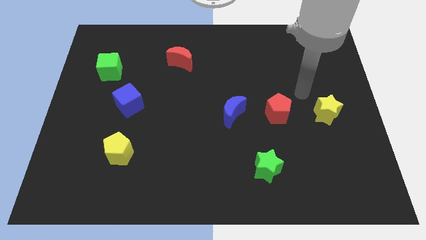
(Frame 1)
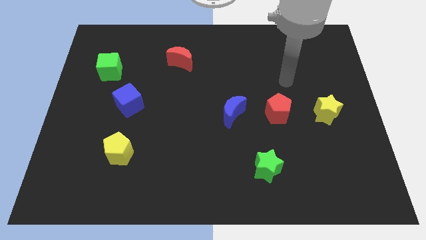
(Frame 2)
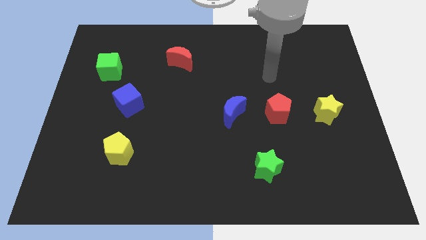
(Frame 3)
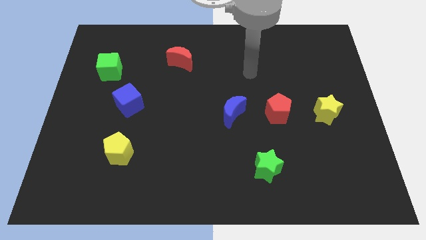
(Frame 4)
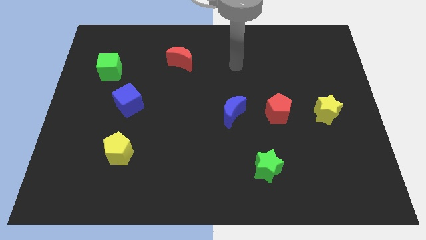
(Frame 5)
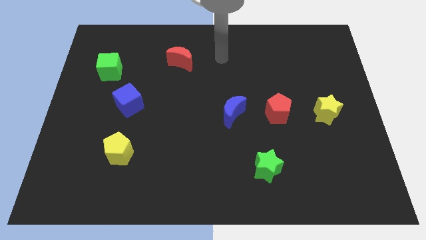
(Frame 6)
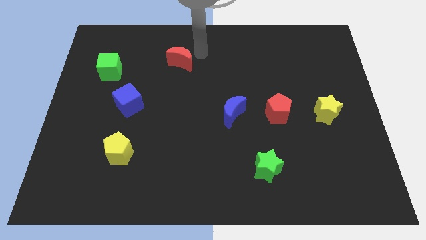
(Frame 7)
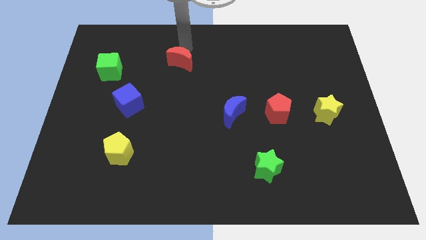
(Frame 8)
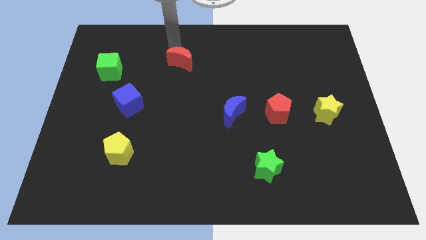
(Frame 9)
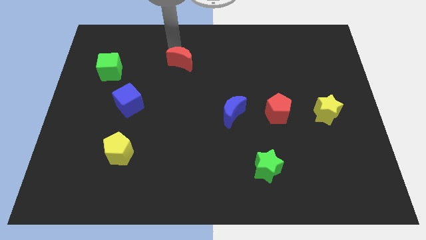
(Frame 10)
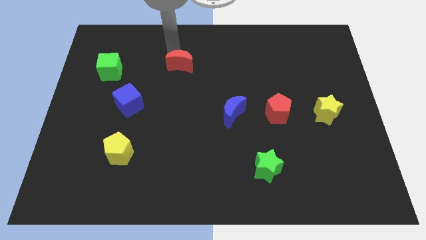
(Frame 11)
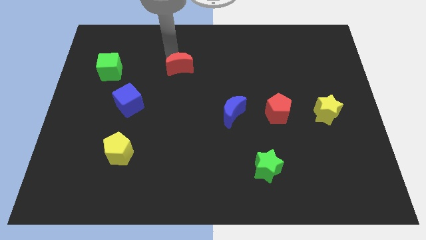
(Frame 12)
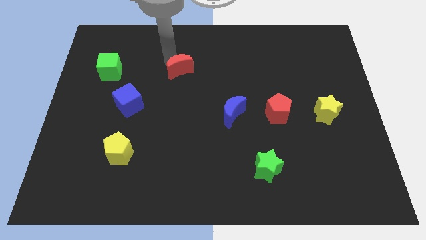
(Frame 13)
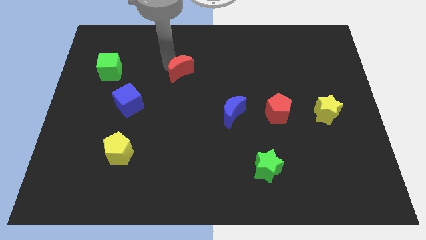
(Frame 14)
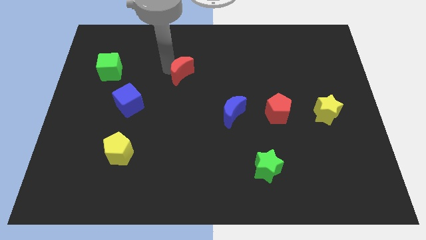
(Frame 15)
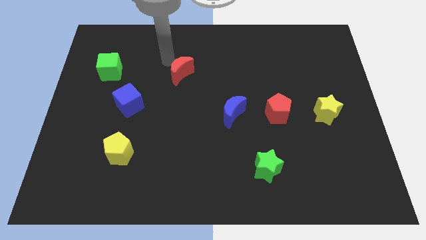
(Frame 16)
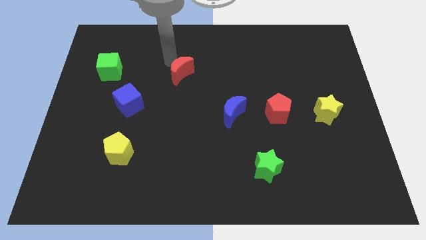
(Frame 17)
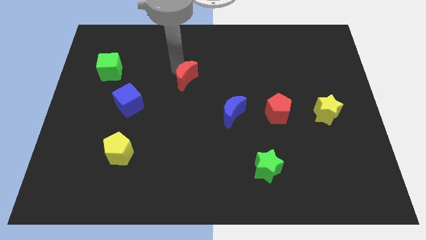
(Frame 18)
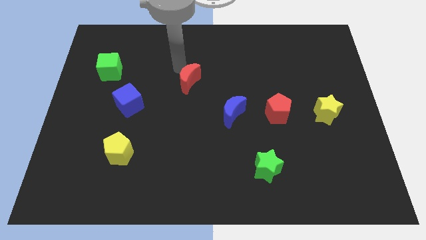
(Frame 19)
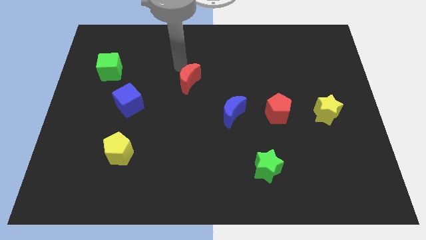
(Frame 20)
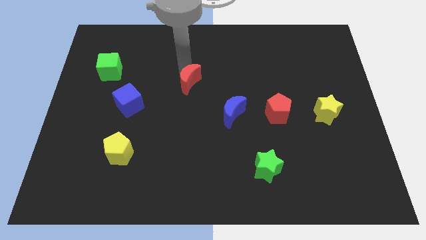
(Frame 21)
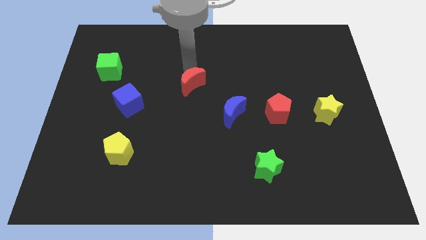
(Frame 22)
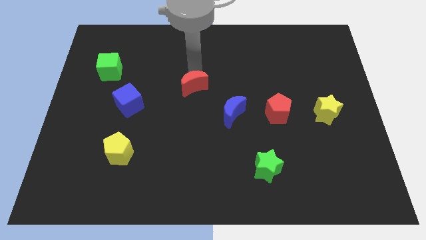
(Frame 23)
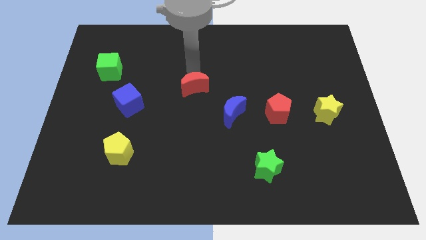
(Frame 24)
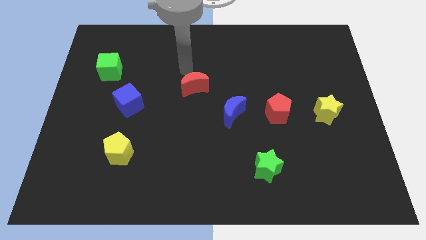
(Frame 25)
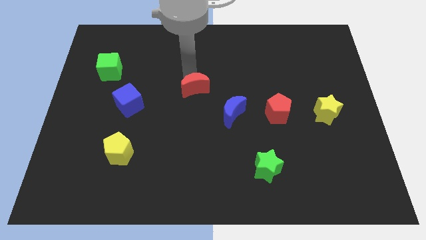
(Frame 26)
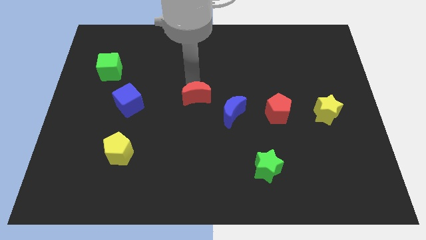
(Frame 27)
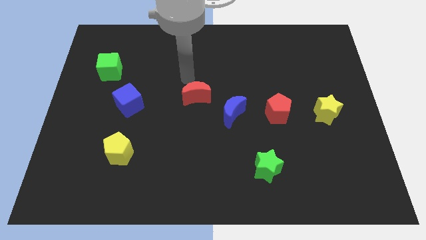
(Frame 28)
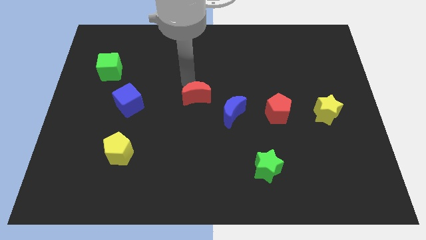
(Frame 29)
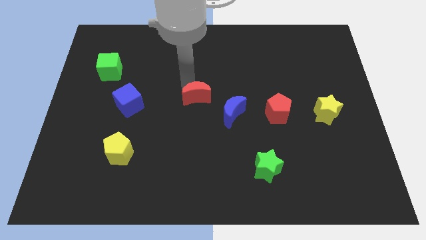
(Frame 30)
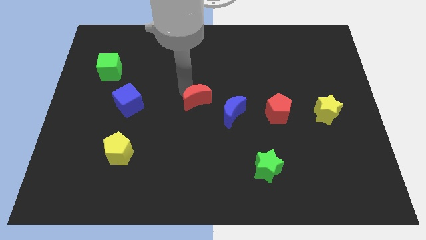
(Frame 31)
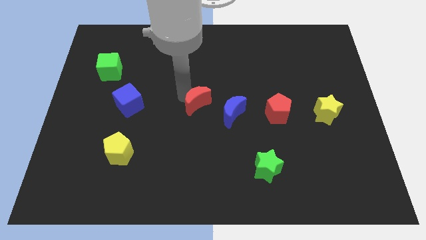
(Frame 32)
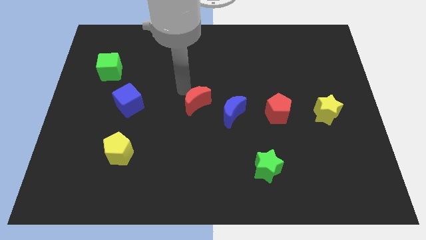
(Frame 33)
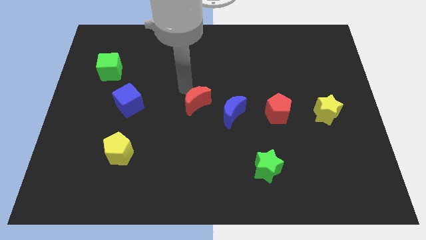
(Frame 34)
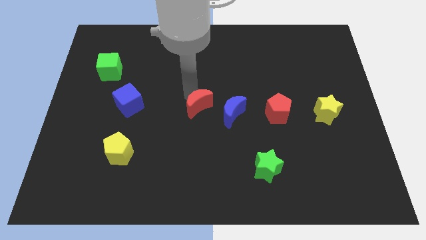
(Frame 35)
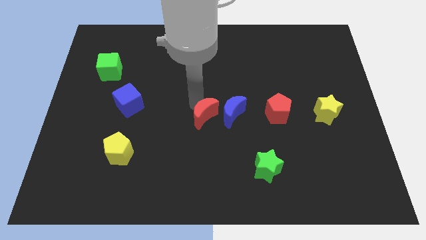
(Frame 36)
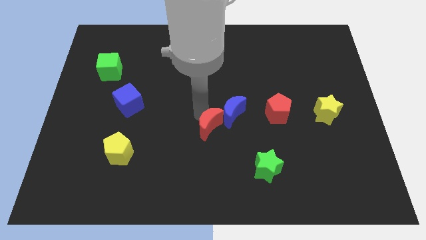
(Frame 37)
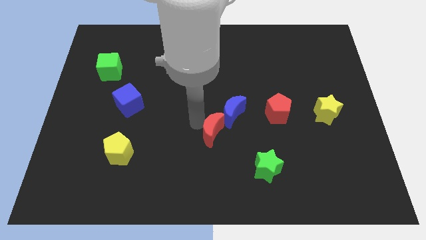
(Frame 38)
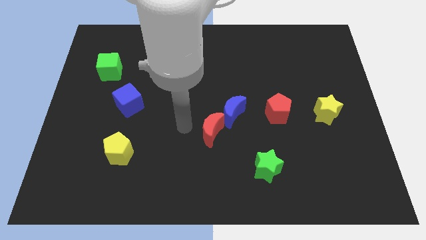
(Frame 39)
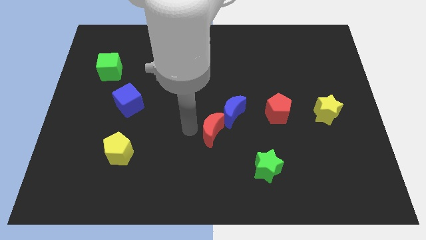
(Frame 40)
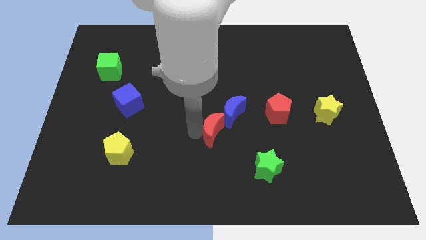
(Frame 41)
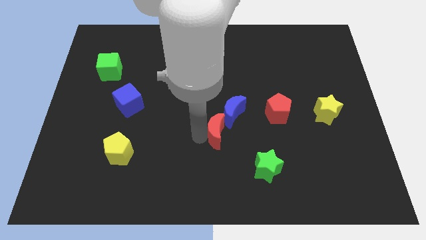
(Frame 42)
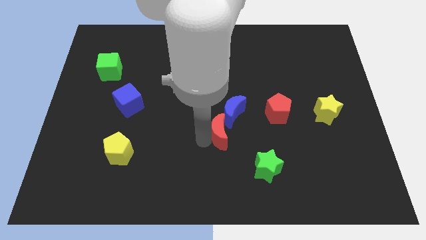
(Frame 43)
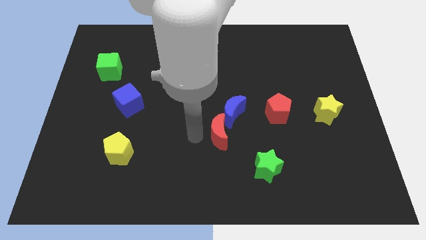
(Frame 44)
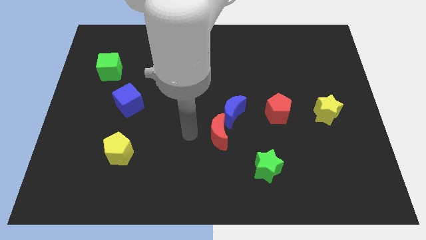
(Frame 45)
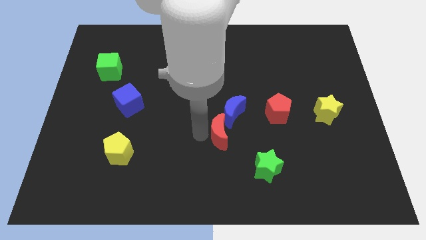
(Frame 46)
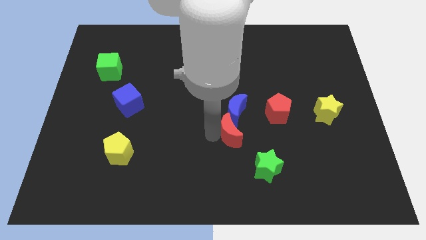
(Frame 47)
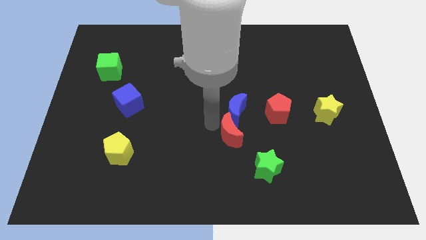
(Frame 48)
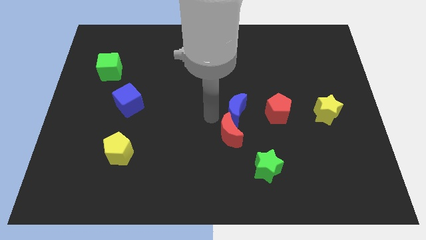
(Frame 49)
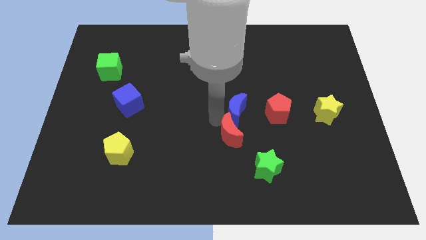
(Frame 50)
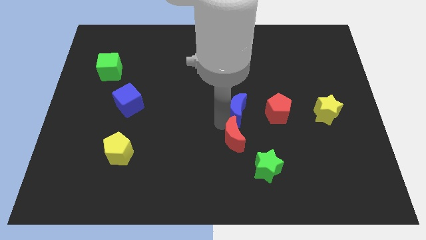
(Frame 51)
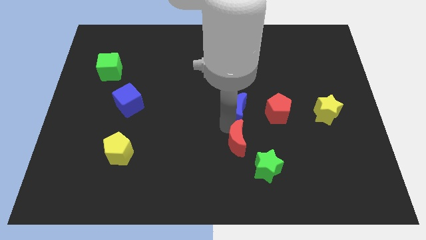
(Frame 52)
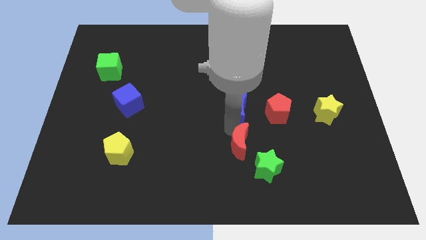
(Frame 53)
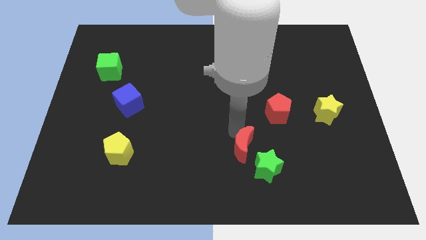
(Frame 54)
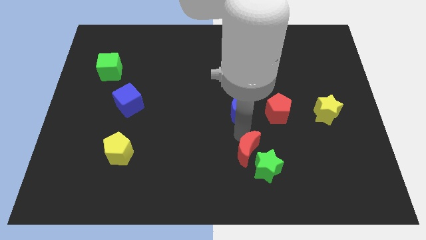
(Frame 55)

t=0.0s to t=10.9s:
slide the red moon to the green star

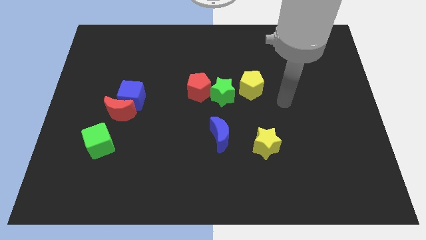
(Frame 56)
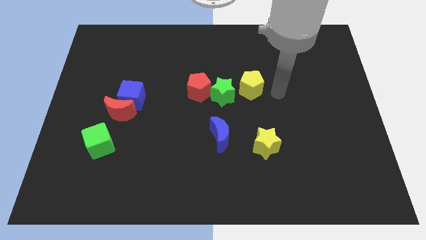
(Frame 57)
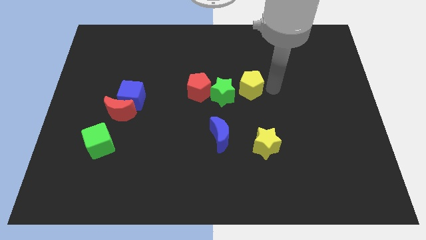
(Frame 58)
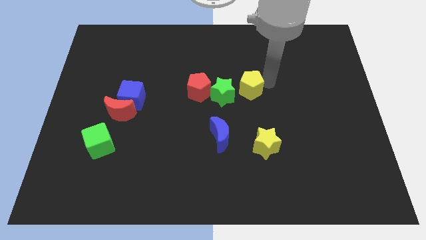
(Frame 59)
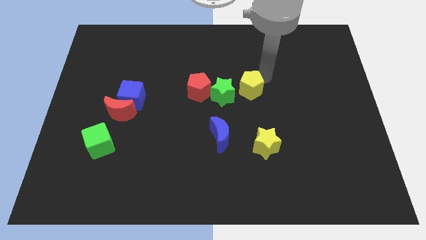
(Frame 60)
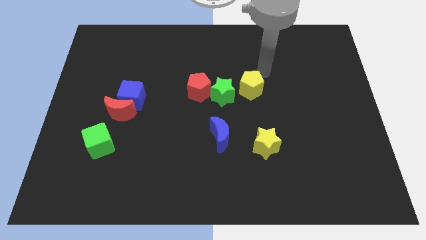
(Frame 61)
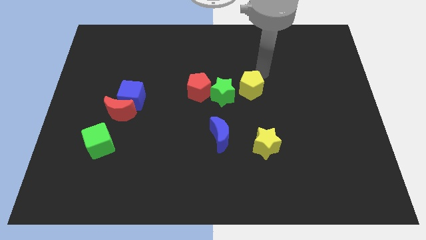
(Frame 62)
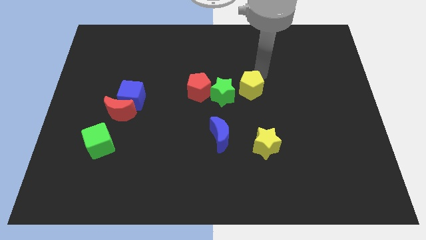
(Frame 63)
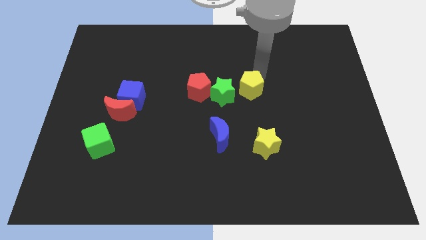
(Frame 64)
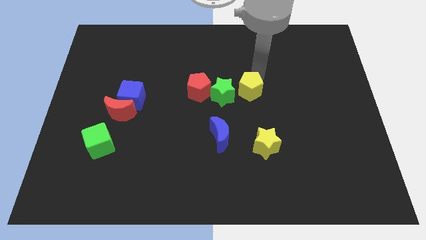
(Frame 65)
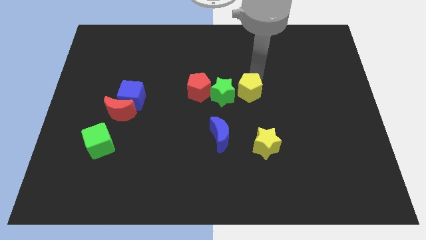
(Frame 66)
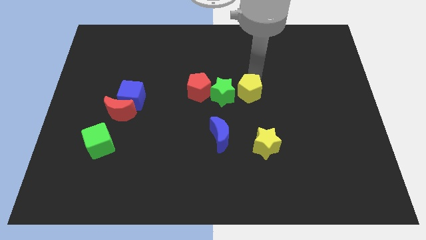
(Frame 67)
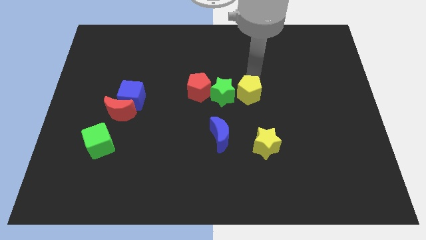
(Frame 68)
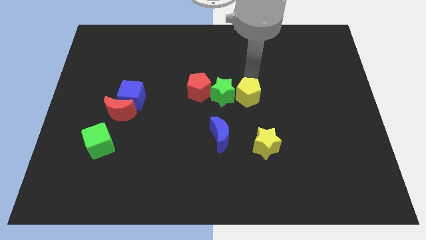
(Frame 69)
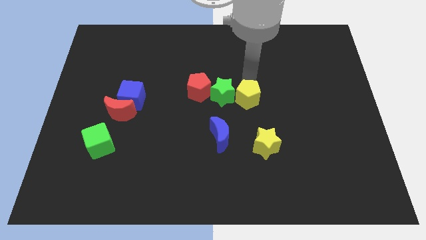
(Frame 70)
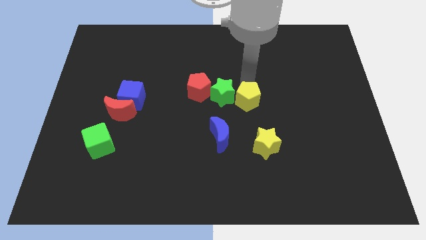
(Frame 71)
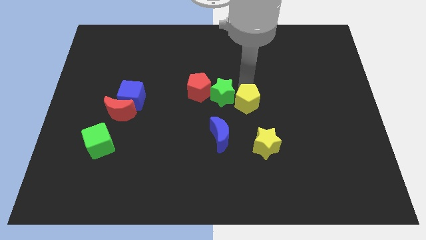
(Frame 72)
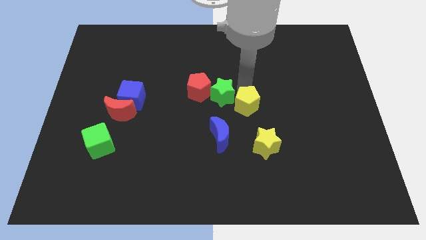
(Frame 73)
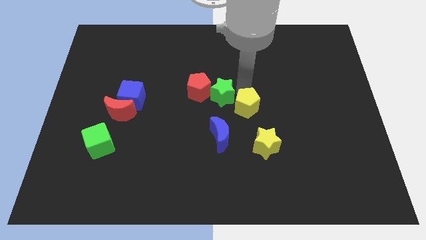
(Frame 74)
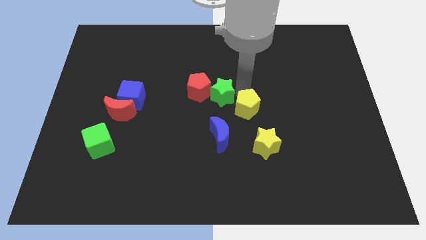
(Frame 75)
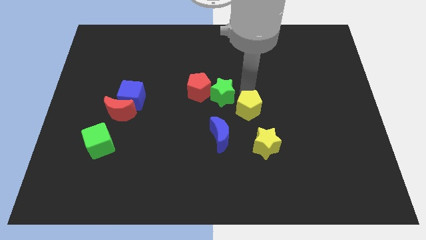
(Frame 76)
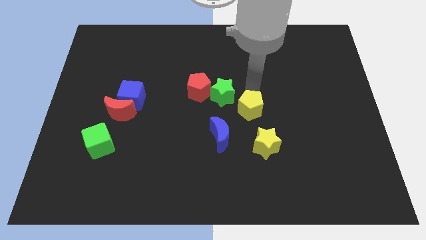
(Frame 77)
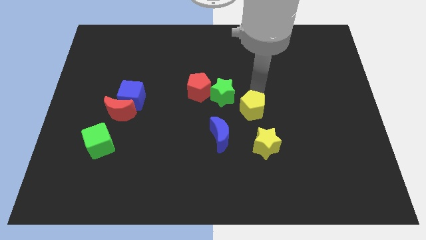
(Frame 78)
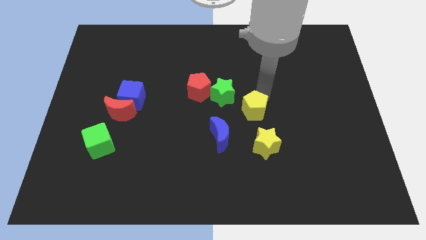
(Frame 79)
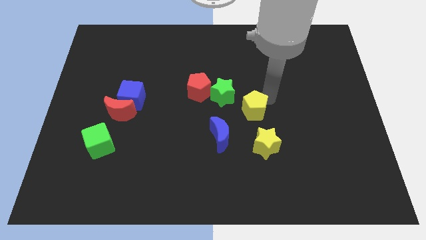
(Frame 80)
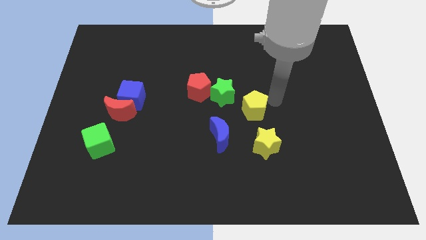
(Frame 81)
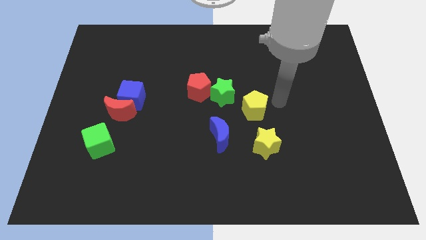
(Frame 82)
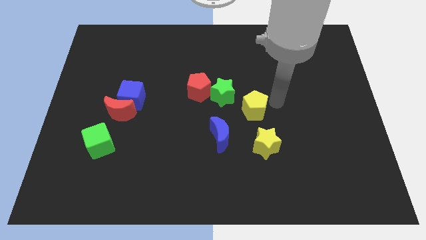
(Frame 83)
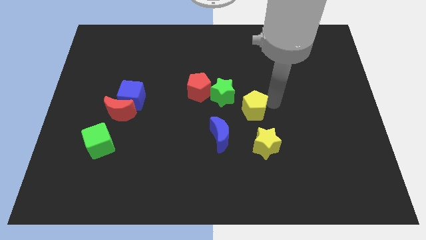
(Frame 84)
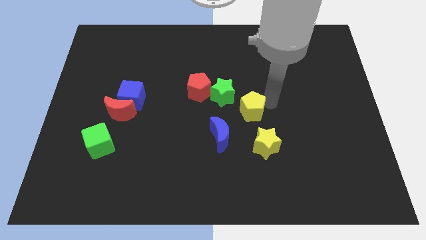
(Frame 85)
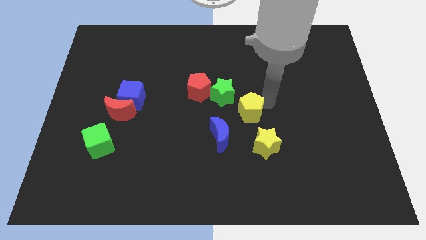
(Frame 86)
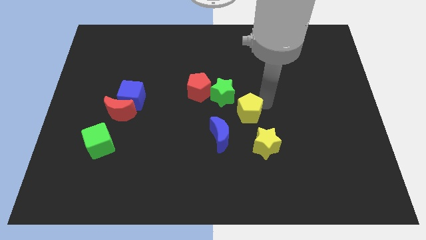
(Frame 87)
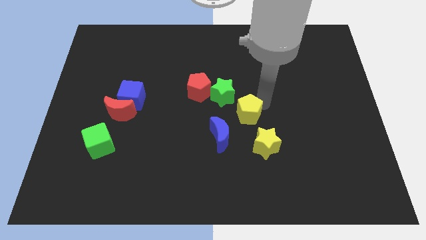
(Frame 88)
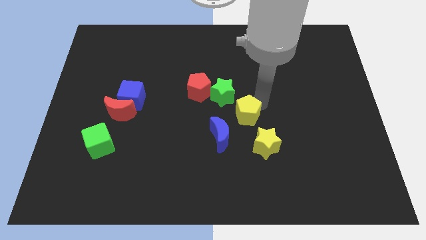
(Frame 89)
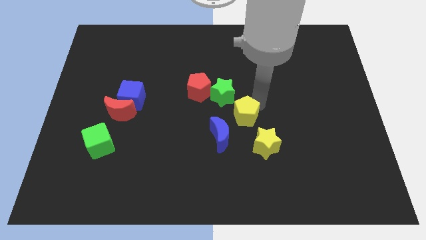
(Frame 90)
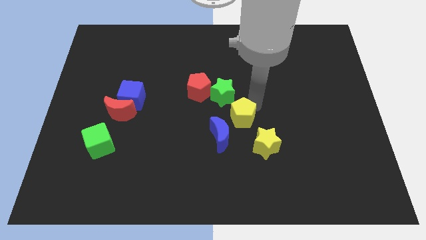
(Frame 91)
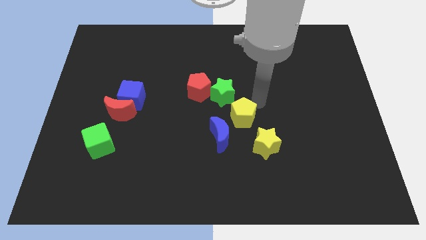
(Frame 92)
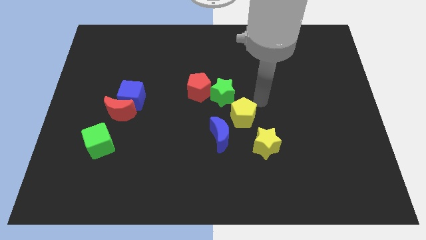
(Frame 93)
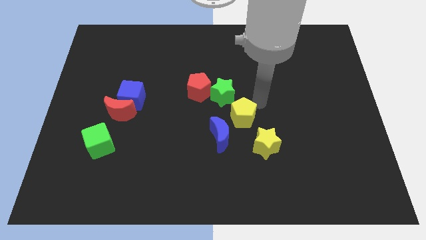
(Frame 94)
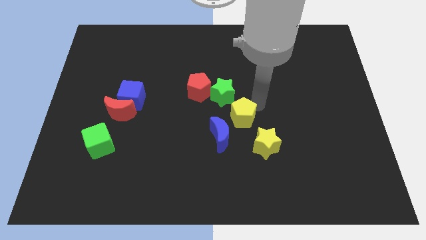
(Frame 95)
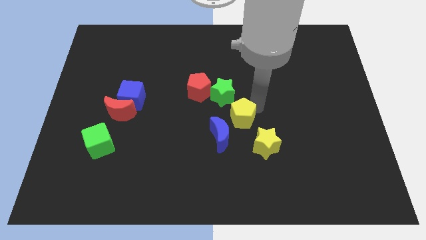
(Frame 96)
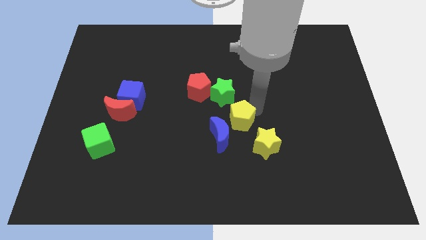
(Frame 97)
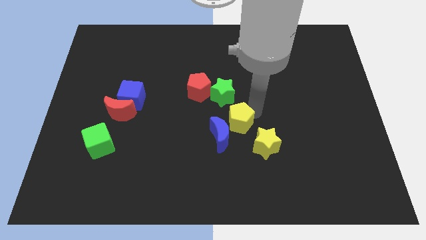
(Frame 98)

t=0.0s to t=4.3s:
move the yellow pentagon close to the blue moon
